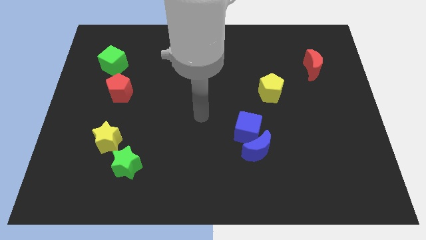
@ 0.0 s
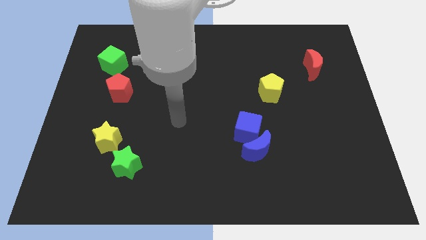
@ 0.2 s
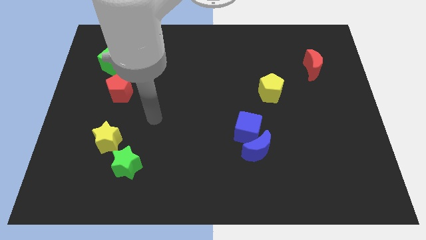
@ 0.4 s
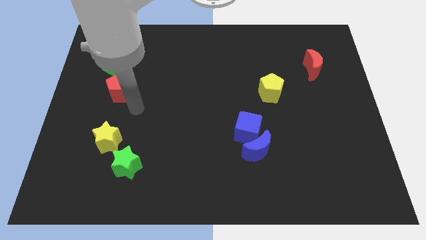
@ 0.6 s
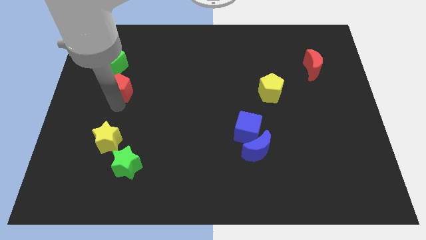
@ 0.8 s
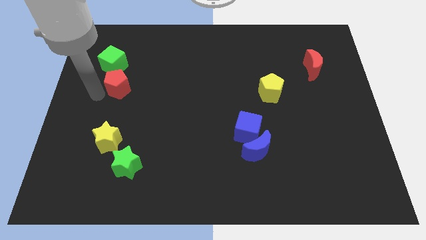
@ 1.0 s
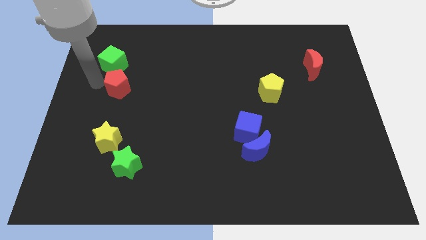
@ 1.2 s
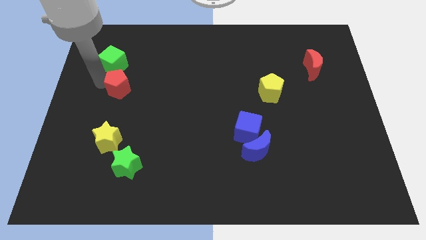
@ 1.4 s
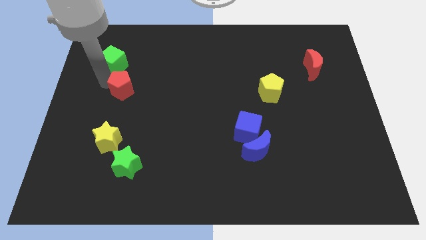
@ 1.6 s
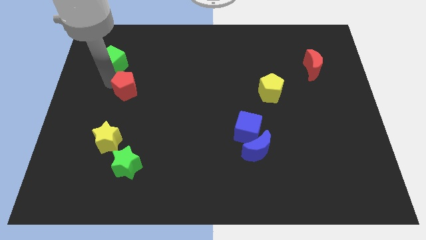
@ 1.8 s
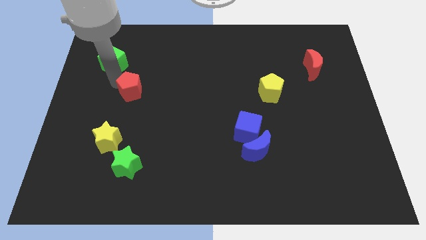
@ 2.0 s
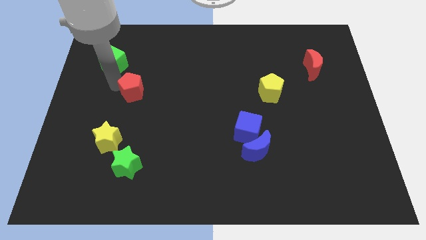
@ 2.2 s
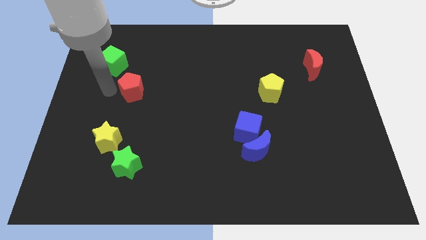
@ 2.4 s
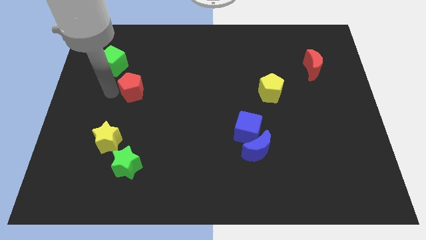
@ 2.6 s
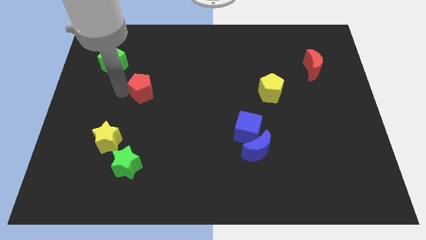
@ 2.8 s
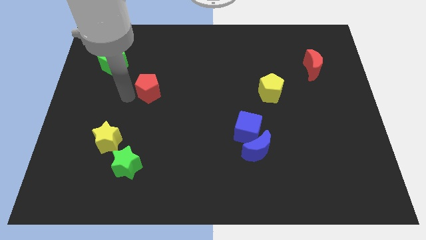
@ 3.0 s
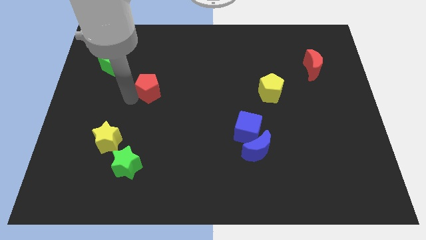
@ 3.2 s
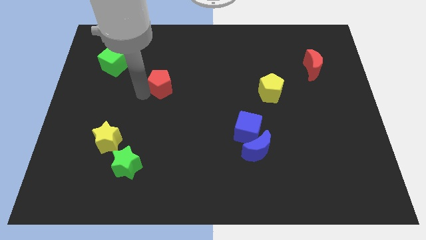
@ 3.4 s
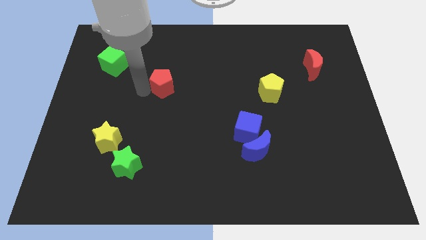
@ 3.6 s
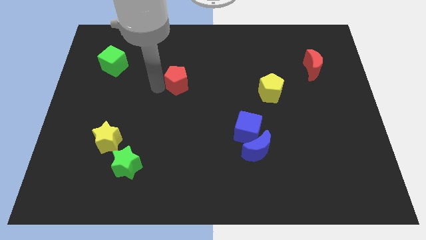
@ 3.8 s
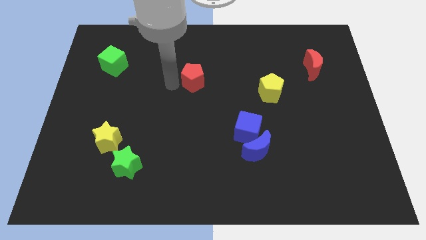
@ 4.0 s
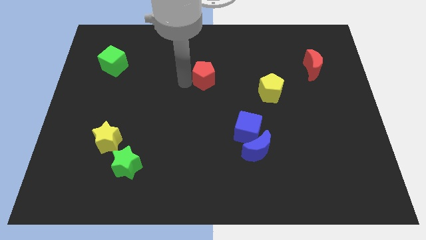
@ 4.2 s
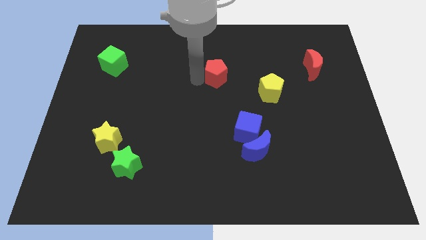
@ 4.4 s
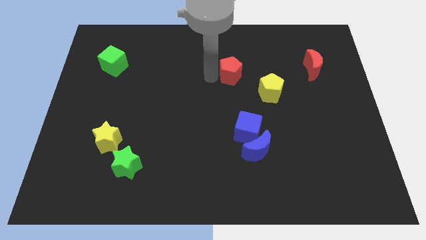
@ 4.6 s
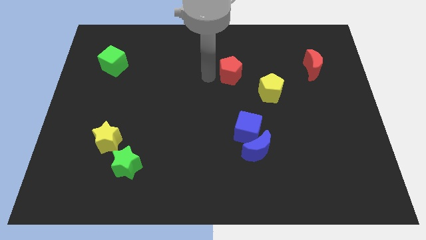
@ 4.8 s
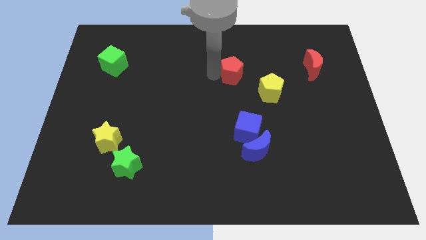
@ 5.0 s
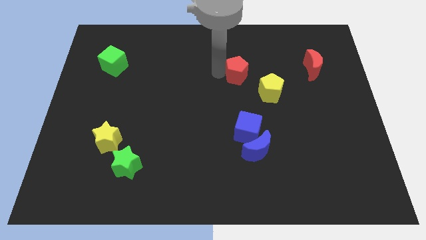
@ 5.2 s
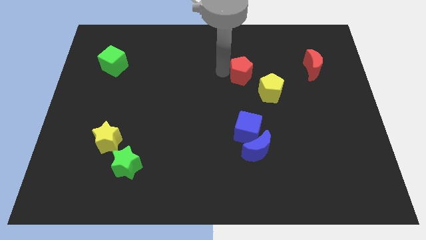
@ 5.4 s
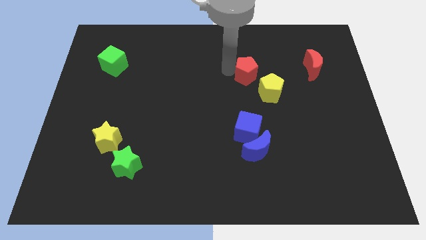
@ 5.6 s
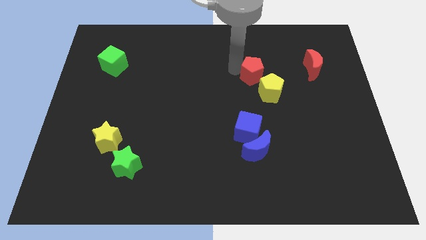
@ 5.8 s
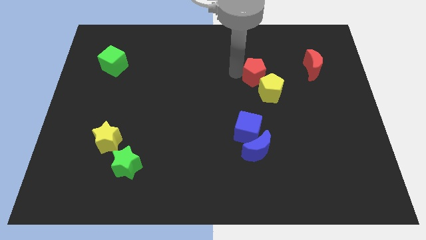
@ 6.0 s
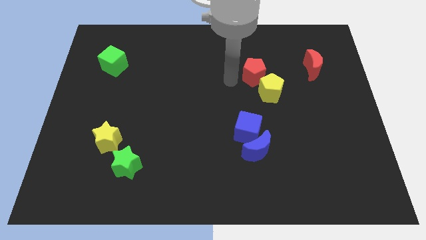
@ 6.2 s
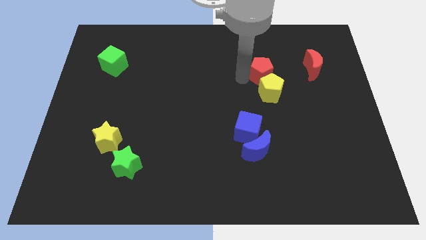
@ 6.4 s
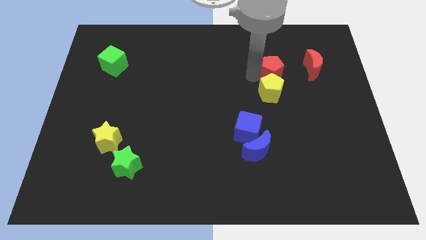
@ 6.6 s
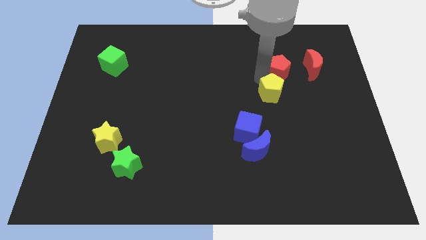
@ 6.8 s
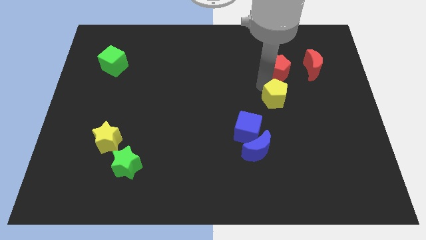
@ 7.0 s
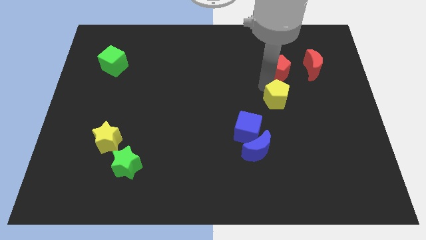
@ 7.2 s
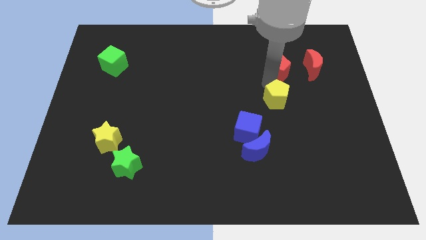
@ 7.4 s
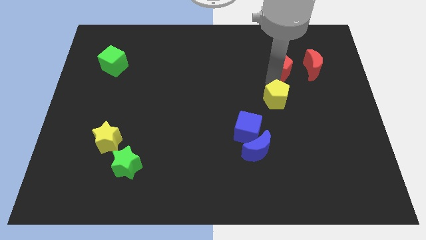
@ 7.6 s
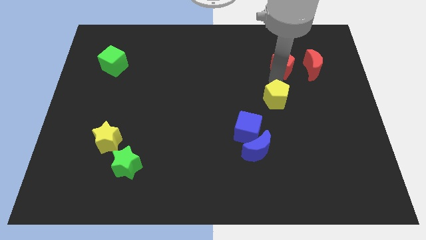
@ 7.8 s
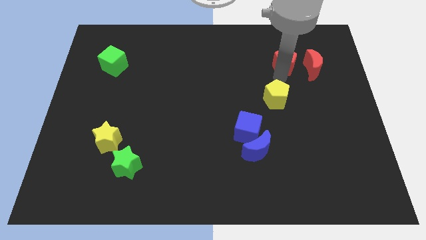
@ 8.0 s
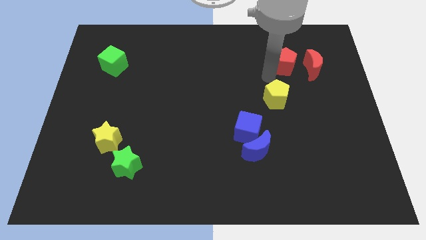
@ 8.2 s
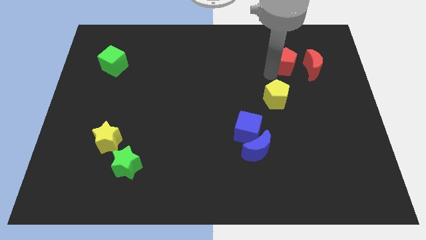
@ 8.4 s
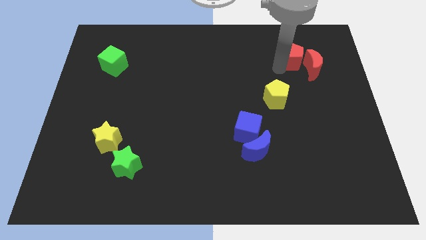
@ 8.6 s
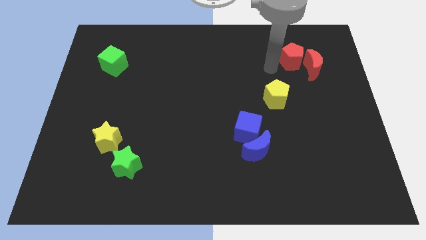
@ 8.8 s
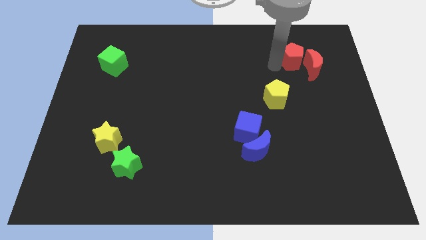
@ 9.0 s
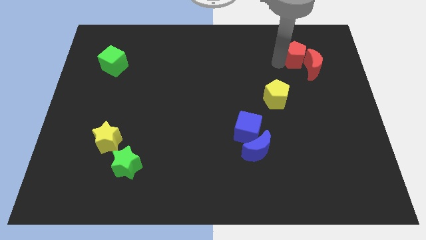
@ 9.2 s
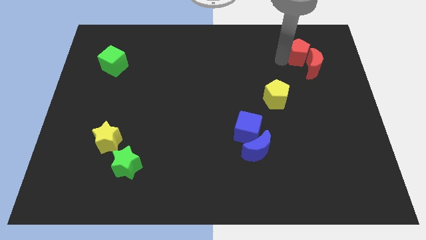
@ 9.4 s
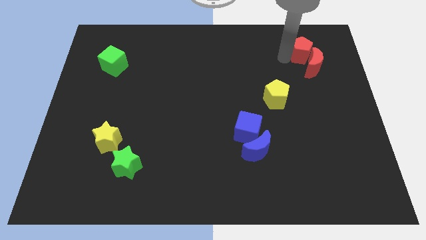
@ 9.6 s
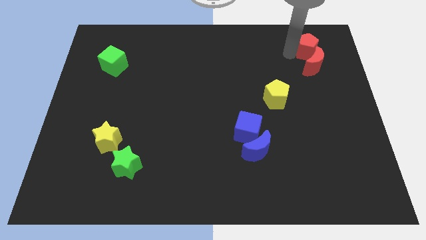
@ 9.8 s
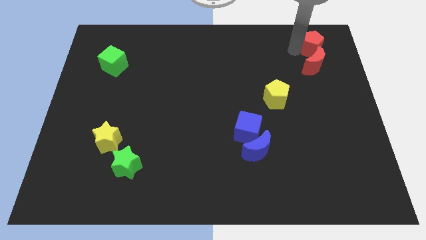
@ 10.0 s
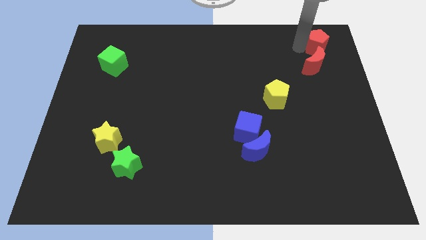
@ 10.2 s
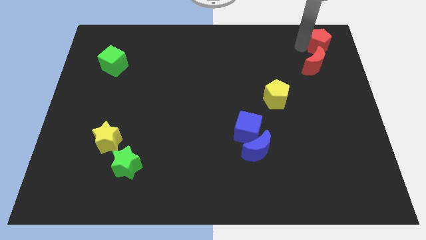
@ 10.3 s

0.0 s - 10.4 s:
put the red pentagon to the top right
